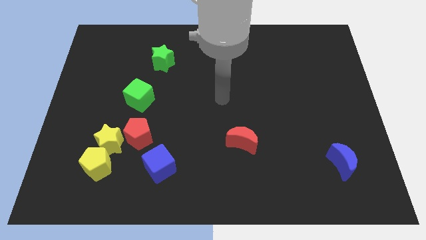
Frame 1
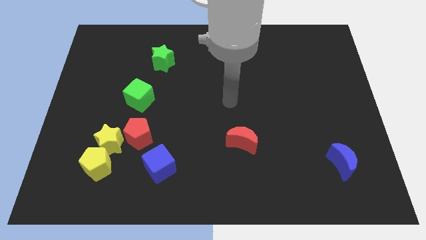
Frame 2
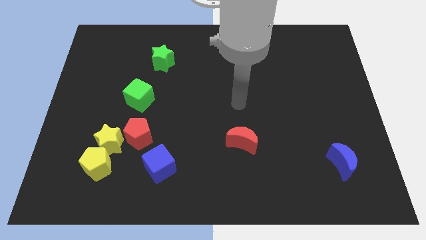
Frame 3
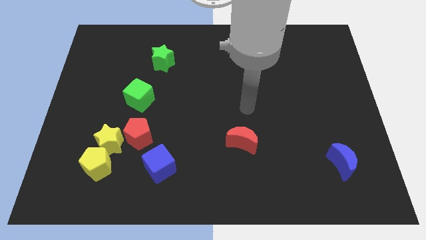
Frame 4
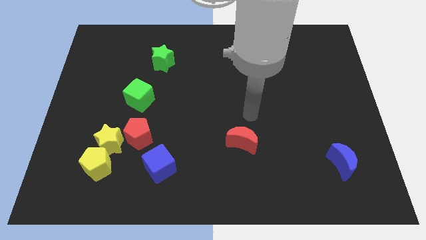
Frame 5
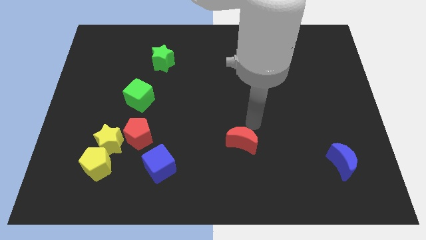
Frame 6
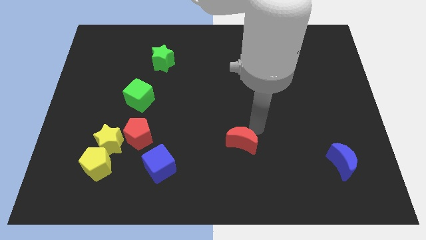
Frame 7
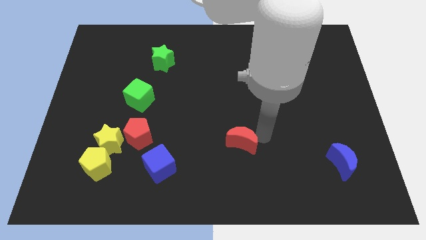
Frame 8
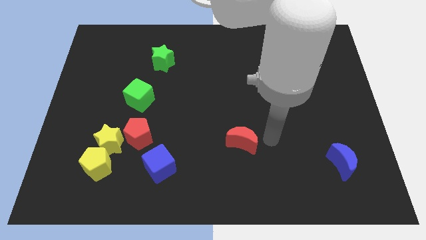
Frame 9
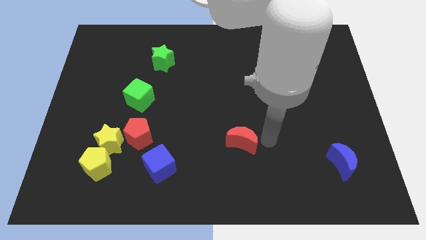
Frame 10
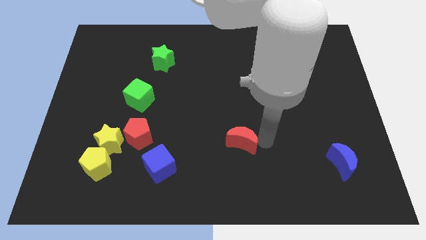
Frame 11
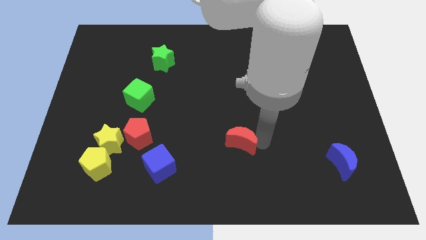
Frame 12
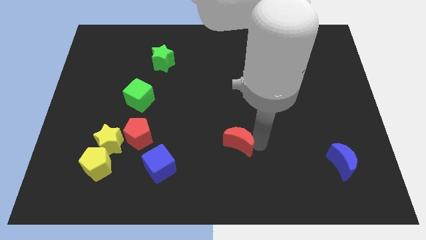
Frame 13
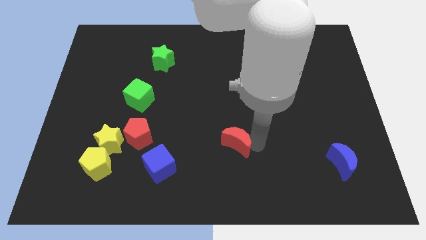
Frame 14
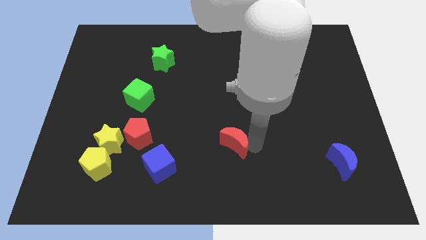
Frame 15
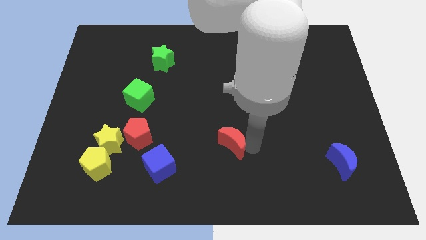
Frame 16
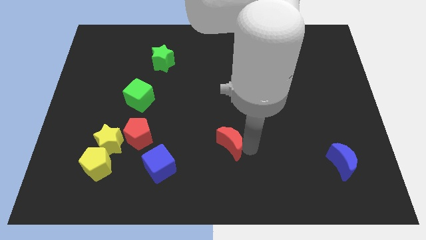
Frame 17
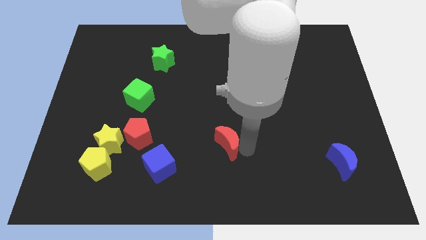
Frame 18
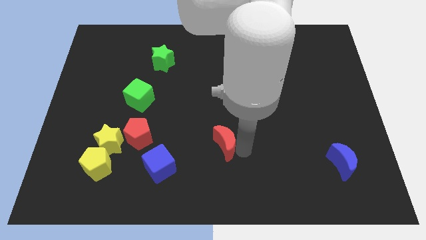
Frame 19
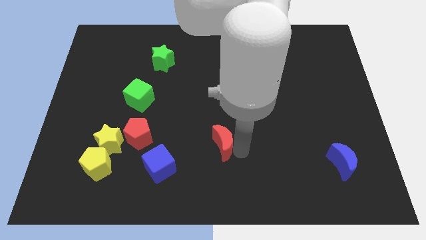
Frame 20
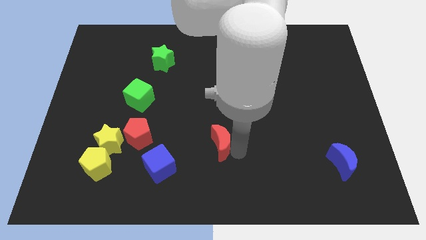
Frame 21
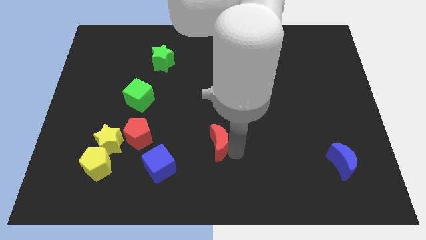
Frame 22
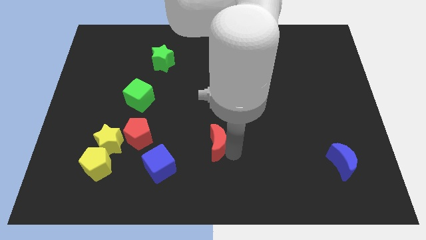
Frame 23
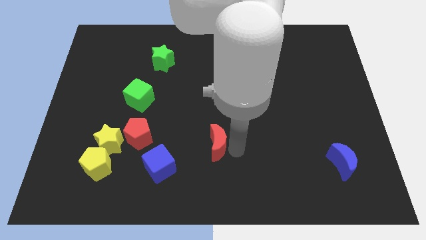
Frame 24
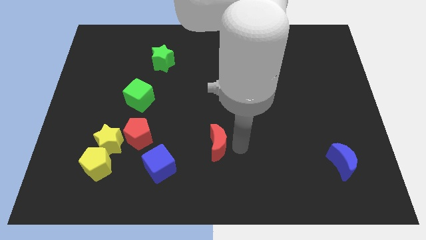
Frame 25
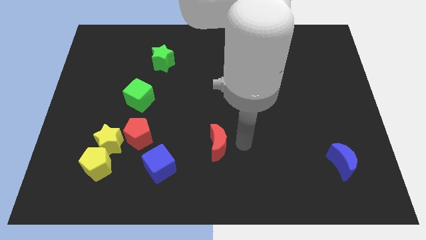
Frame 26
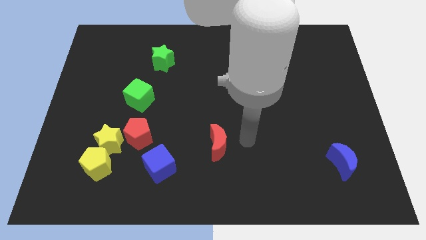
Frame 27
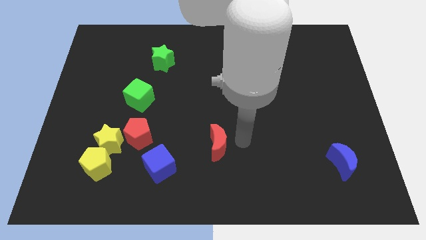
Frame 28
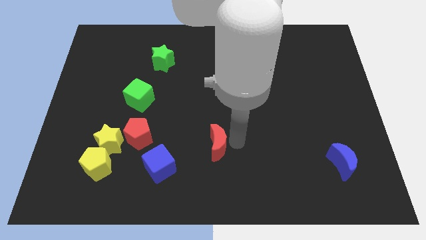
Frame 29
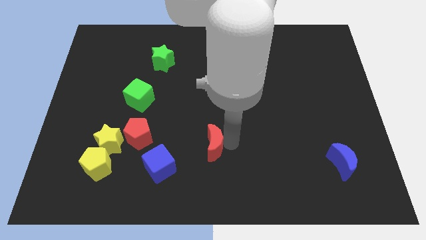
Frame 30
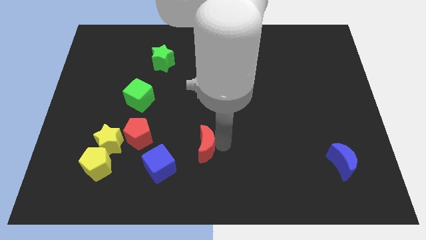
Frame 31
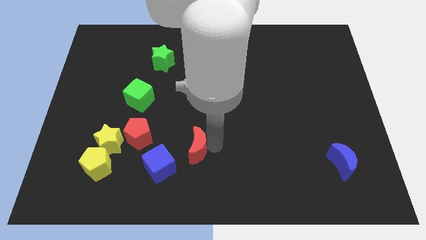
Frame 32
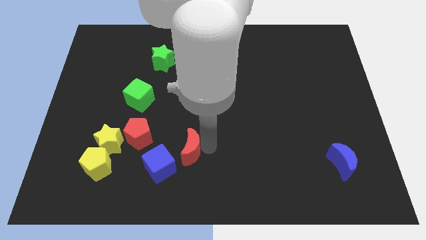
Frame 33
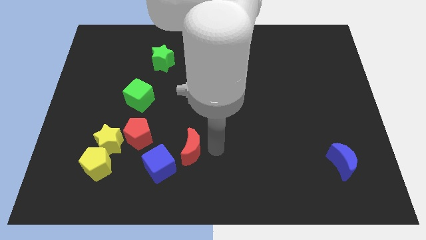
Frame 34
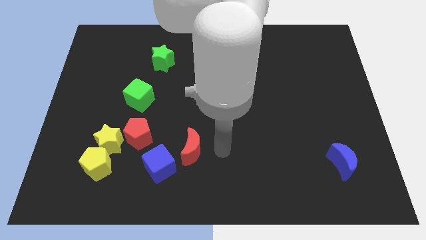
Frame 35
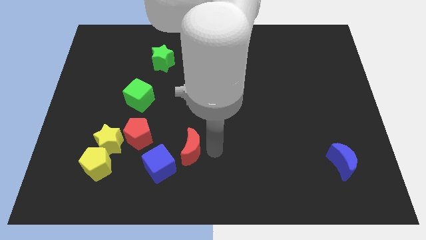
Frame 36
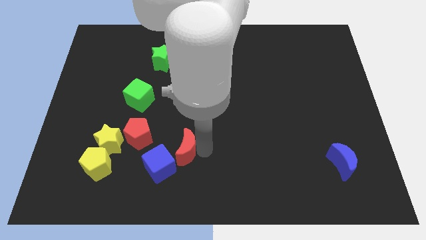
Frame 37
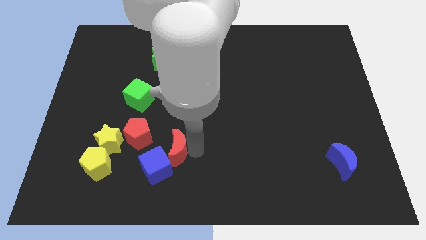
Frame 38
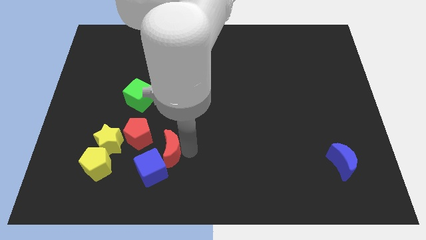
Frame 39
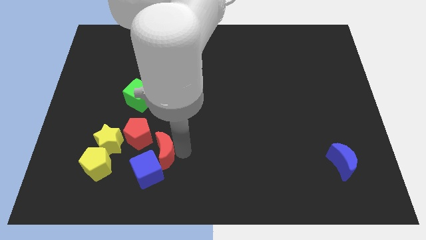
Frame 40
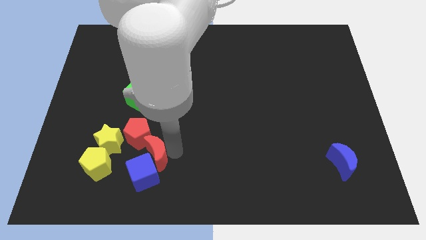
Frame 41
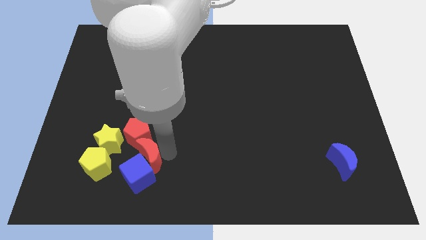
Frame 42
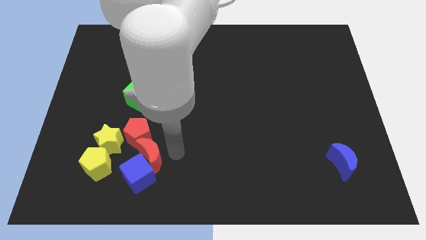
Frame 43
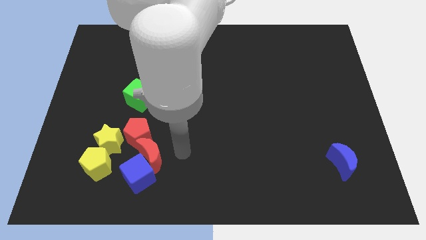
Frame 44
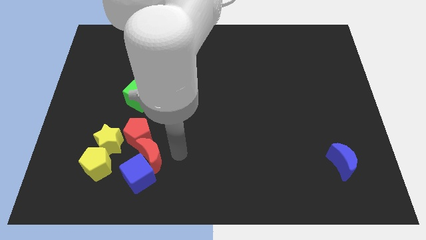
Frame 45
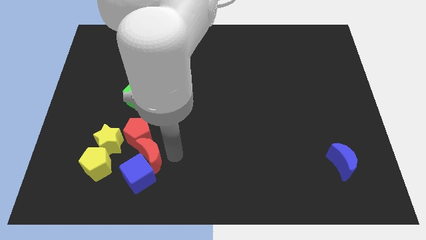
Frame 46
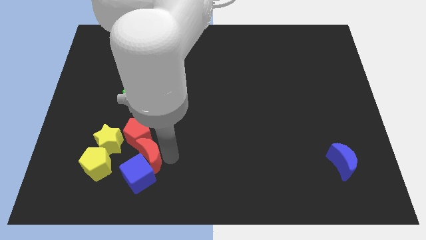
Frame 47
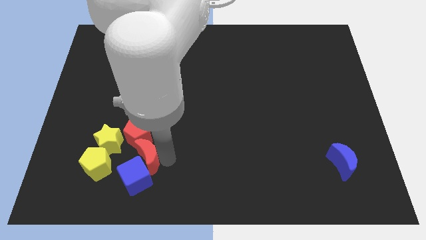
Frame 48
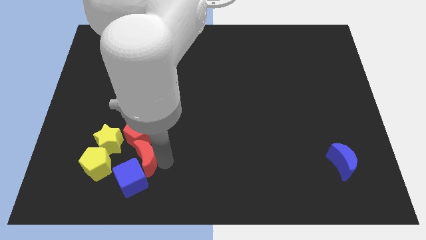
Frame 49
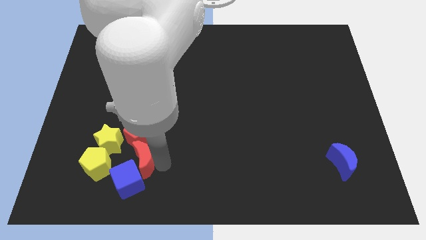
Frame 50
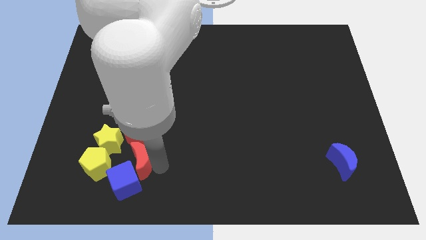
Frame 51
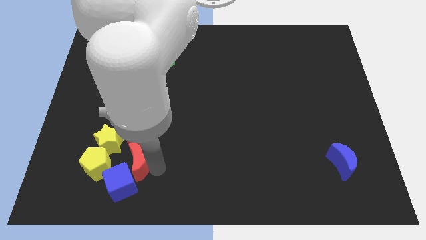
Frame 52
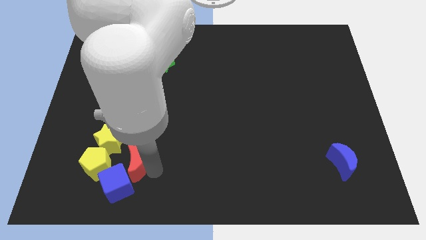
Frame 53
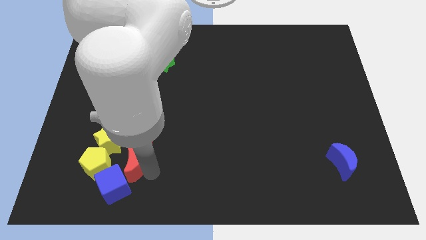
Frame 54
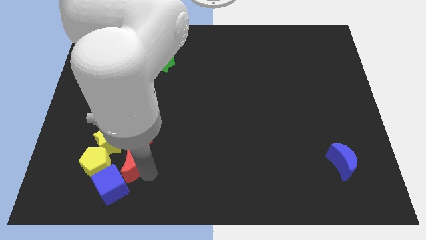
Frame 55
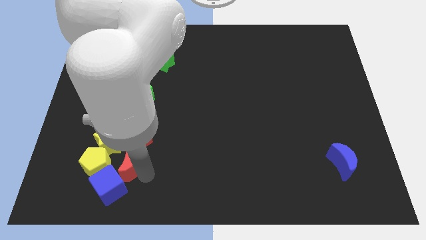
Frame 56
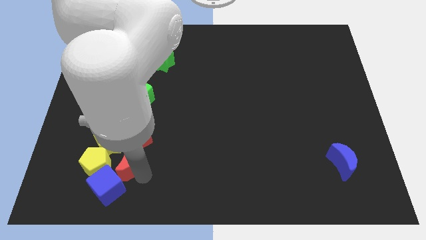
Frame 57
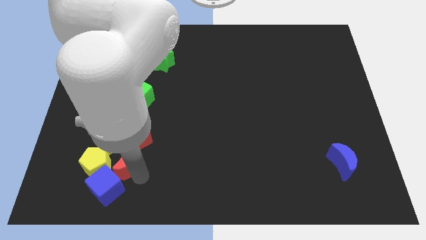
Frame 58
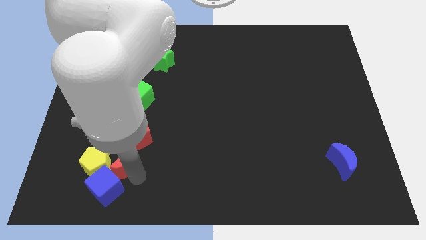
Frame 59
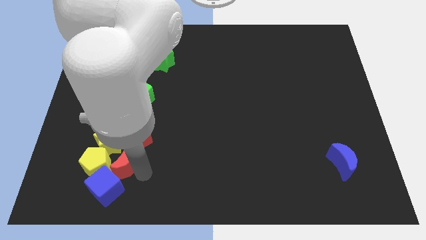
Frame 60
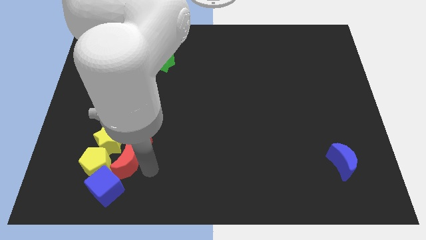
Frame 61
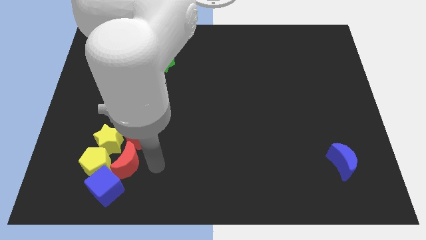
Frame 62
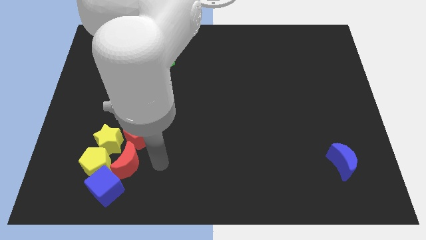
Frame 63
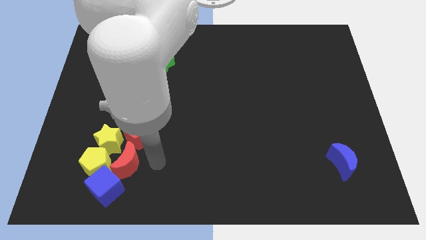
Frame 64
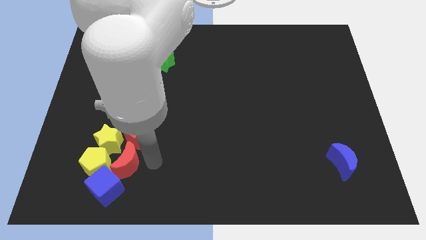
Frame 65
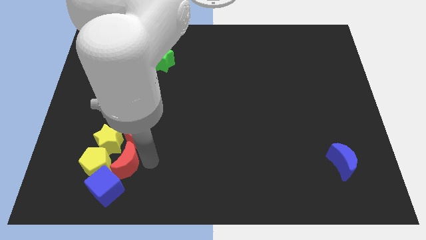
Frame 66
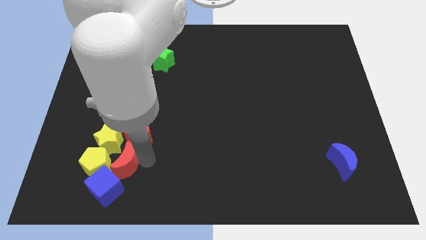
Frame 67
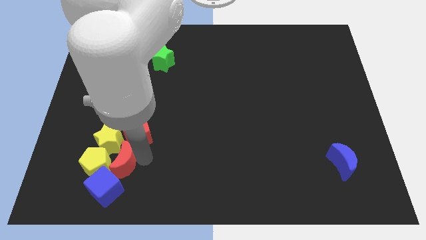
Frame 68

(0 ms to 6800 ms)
put the red moon next to the yellow pentagon

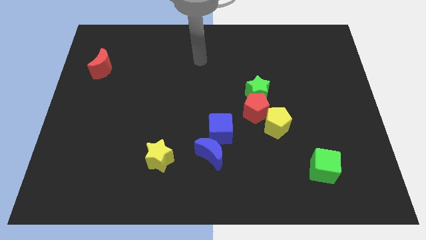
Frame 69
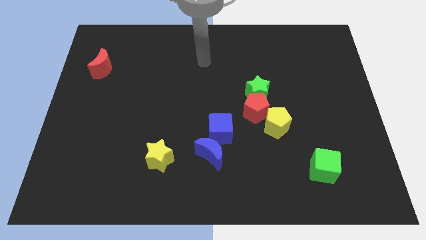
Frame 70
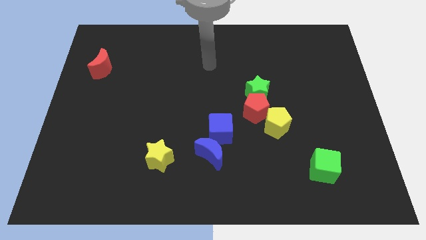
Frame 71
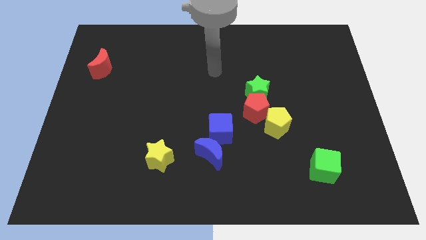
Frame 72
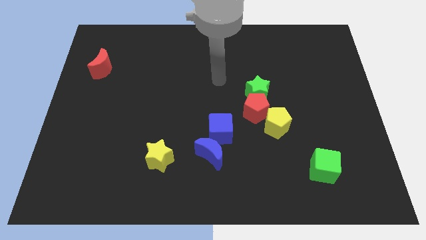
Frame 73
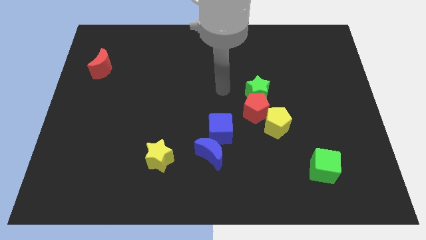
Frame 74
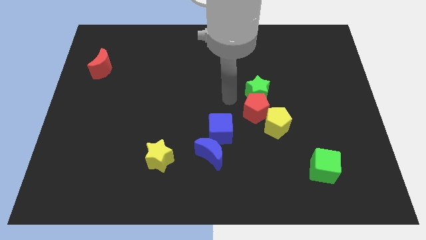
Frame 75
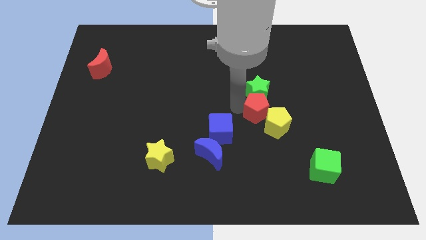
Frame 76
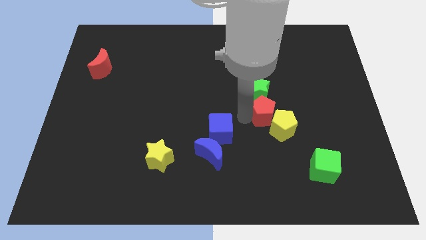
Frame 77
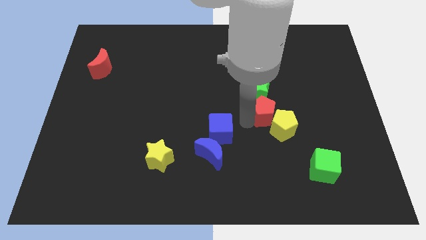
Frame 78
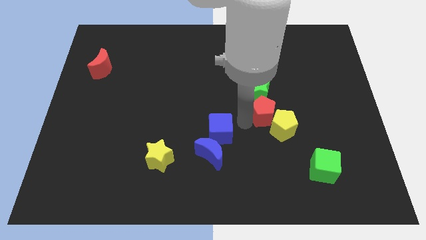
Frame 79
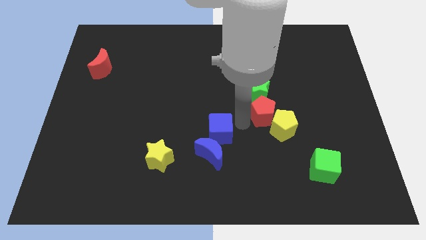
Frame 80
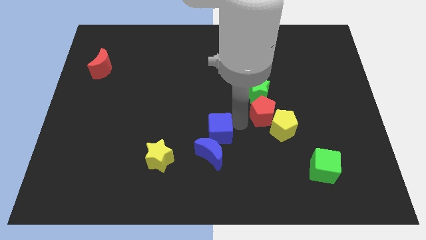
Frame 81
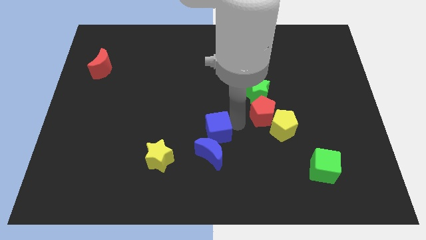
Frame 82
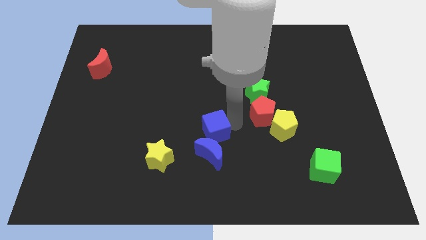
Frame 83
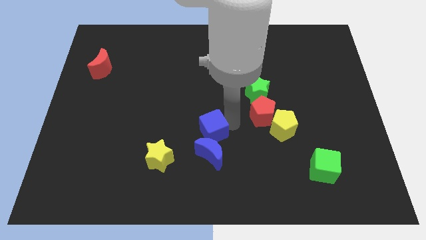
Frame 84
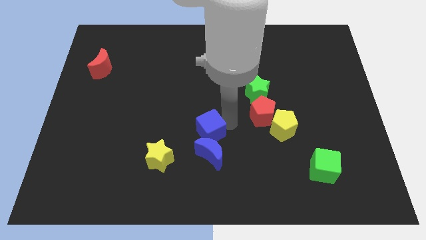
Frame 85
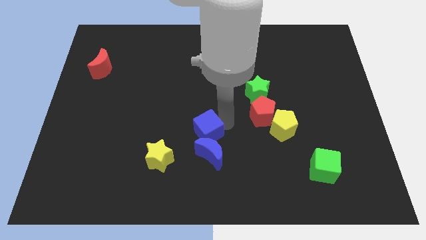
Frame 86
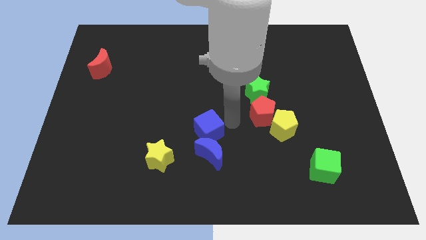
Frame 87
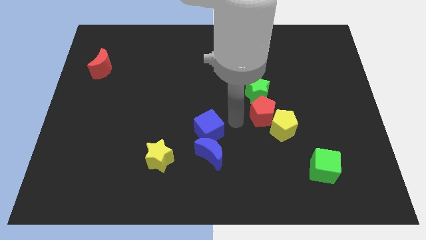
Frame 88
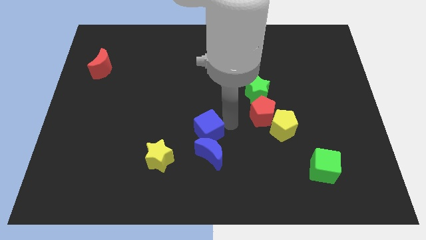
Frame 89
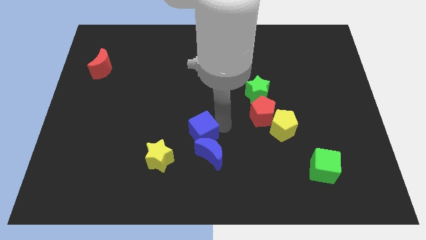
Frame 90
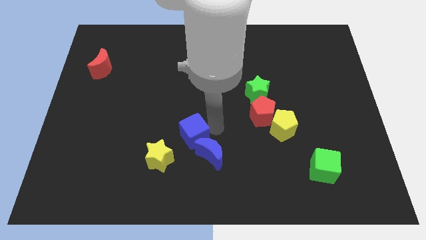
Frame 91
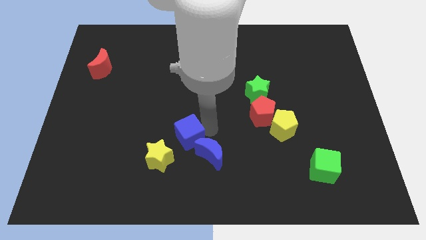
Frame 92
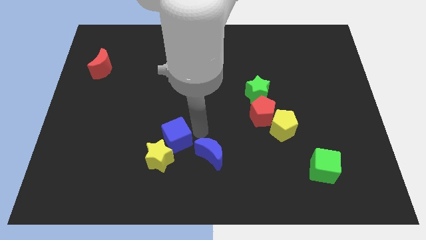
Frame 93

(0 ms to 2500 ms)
slide the blue cube close to the yellow star
